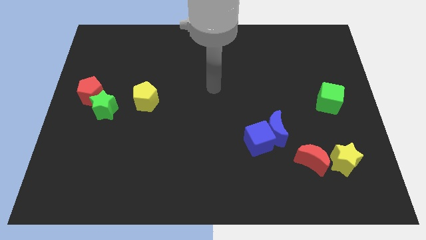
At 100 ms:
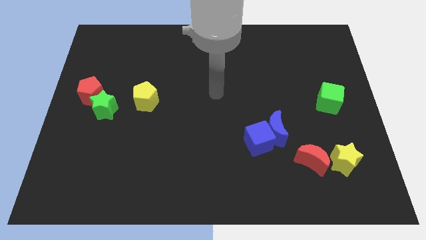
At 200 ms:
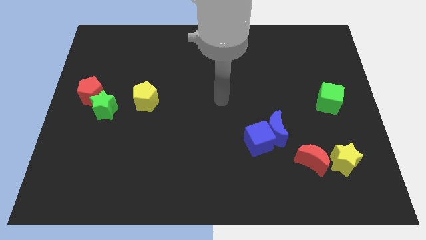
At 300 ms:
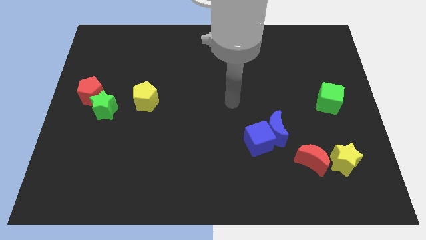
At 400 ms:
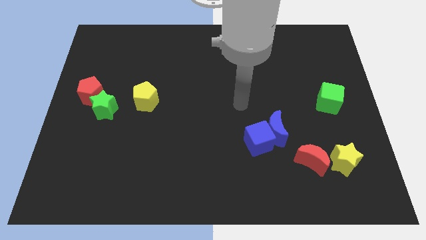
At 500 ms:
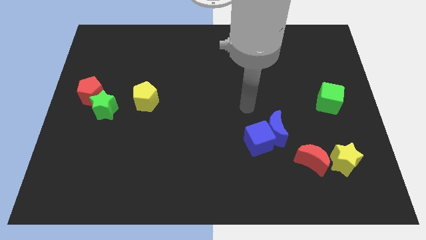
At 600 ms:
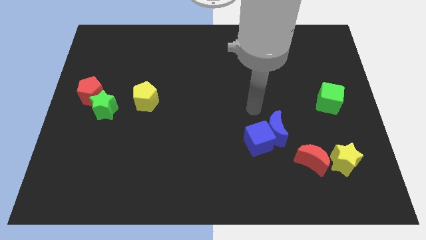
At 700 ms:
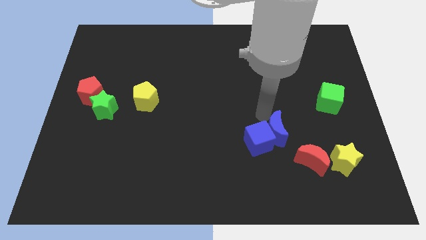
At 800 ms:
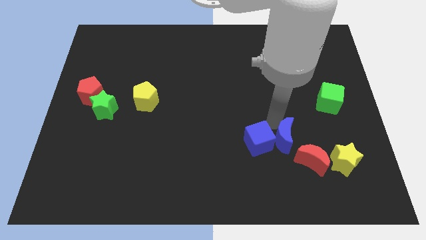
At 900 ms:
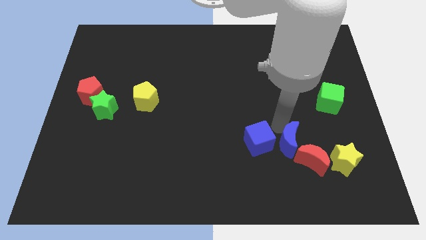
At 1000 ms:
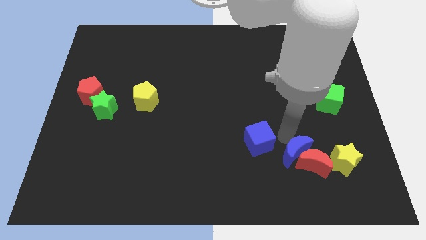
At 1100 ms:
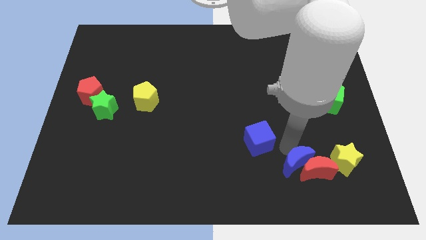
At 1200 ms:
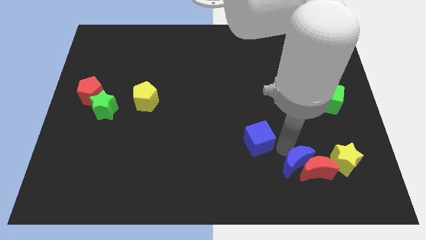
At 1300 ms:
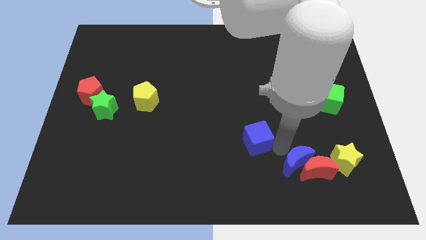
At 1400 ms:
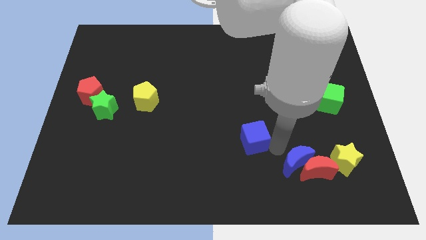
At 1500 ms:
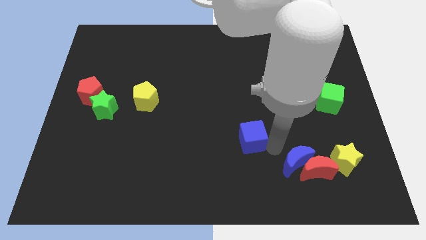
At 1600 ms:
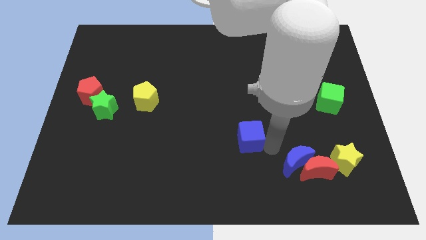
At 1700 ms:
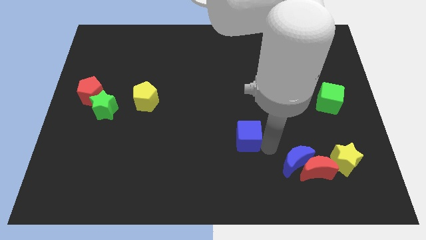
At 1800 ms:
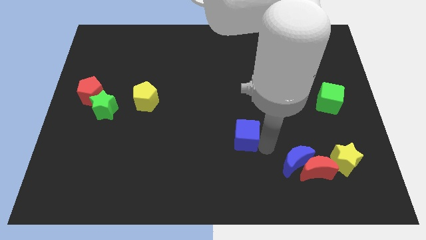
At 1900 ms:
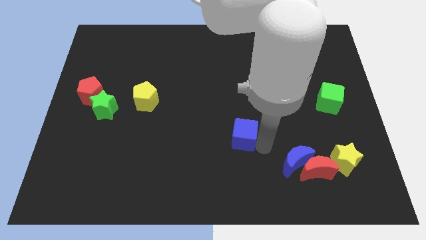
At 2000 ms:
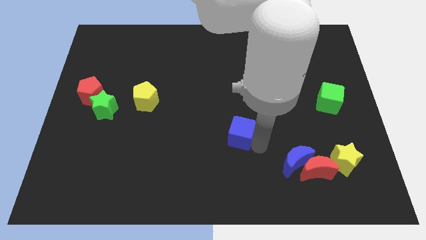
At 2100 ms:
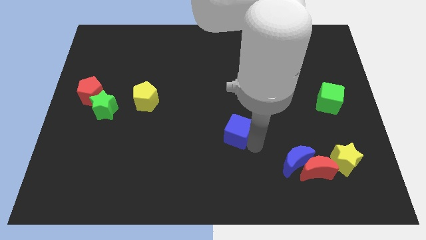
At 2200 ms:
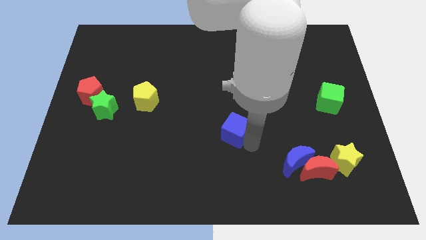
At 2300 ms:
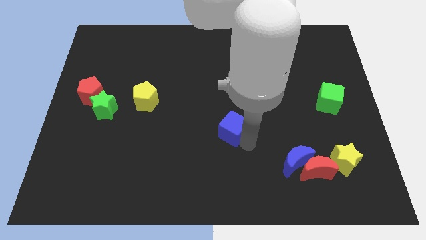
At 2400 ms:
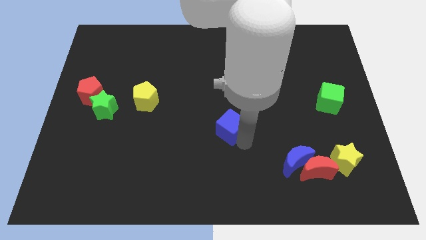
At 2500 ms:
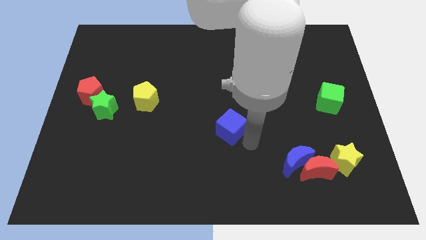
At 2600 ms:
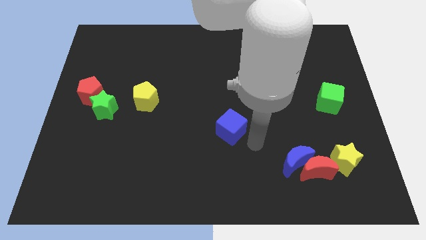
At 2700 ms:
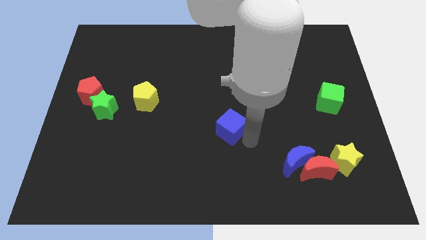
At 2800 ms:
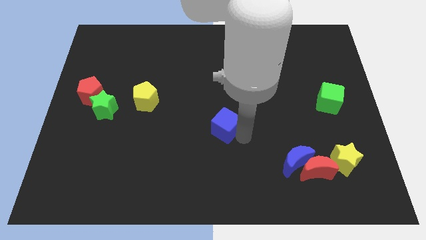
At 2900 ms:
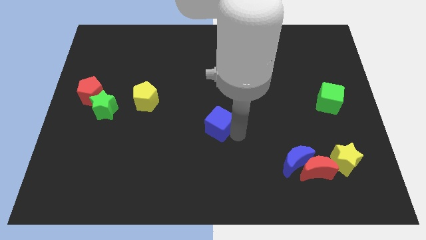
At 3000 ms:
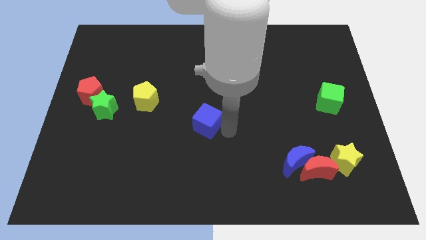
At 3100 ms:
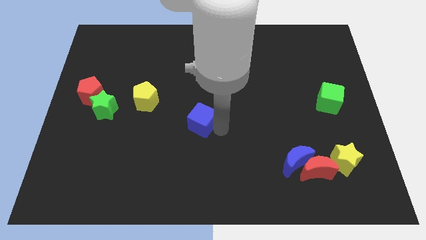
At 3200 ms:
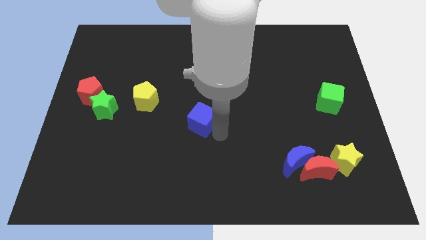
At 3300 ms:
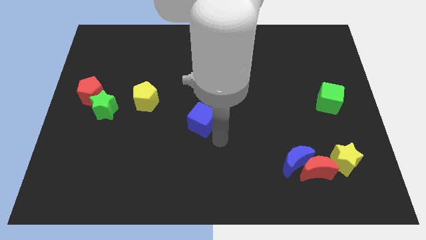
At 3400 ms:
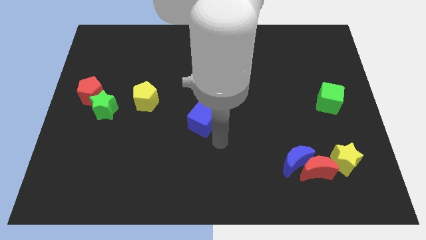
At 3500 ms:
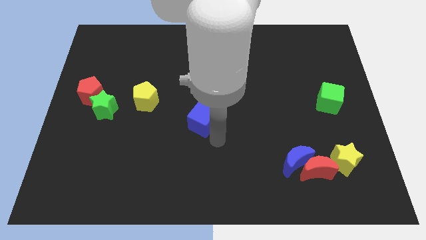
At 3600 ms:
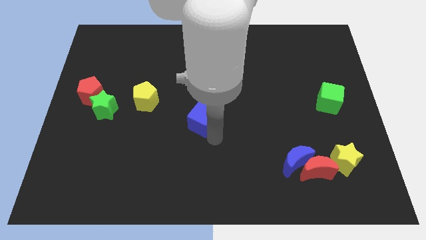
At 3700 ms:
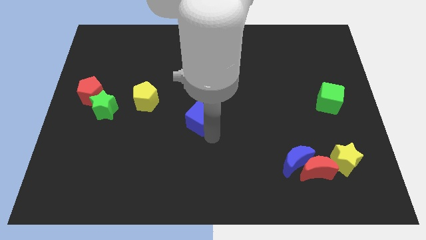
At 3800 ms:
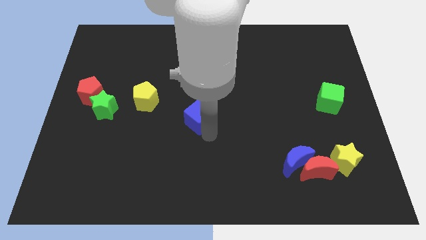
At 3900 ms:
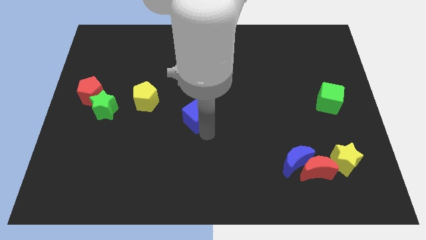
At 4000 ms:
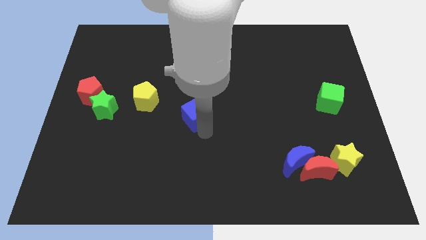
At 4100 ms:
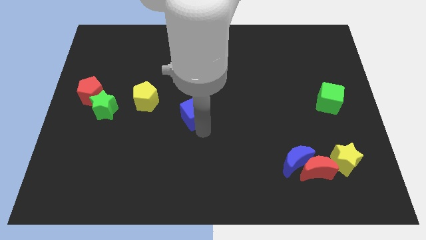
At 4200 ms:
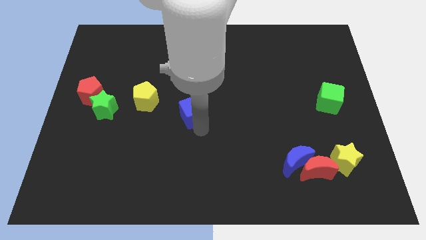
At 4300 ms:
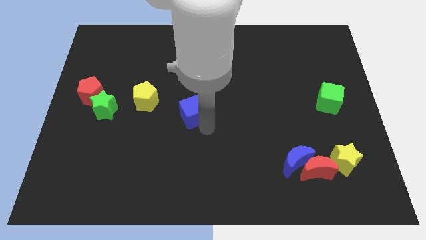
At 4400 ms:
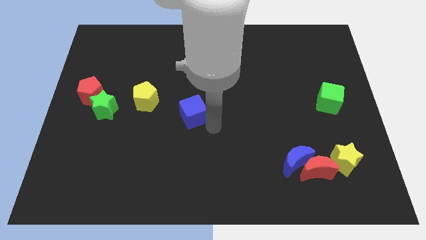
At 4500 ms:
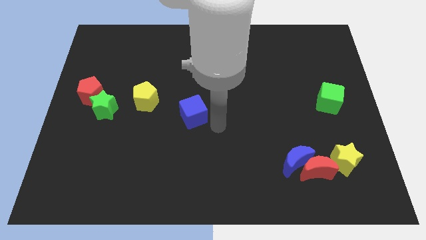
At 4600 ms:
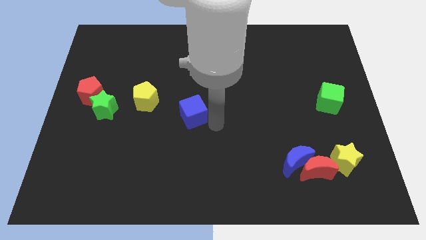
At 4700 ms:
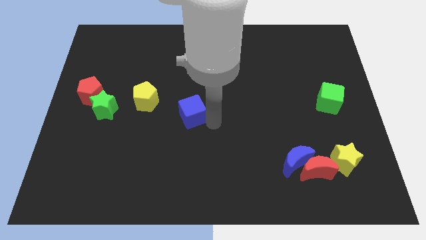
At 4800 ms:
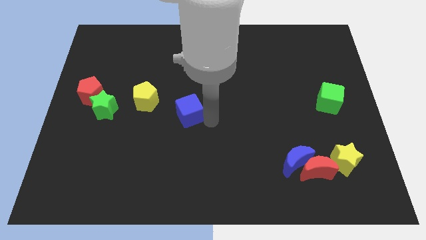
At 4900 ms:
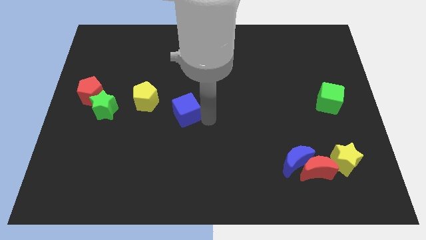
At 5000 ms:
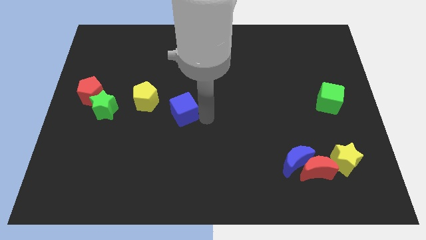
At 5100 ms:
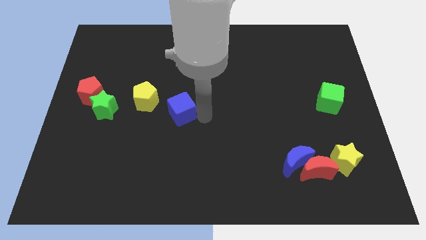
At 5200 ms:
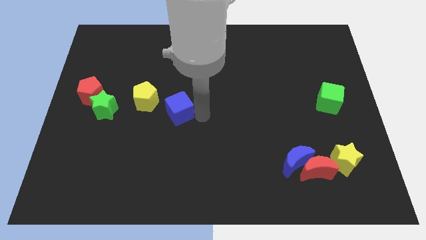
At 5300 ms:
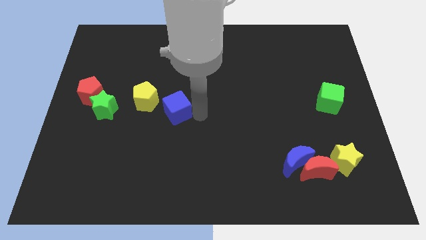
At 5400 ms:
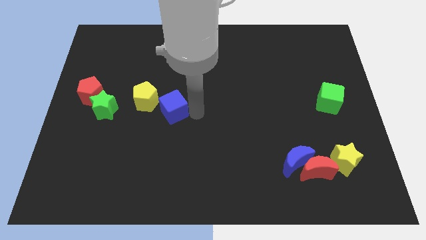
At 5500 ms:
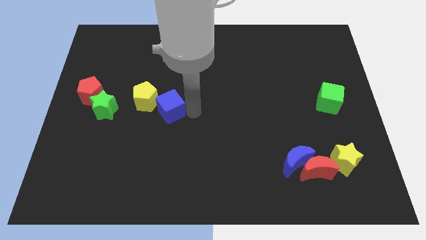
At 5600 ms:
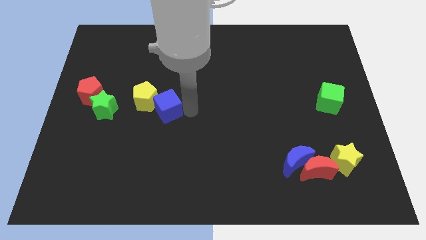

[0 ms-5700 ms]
put the blue cube close to the yellow pentagon

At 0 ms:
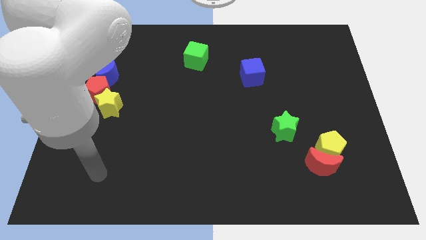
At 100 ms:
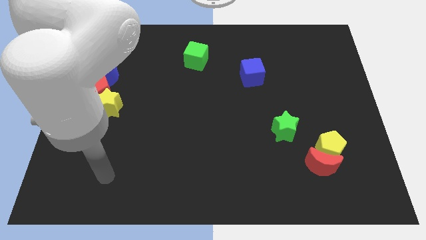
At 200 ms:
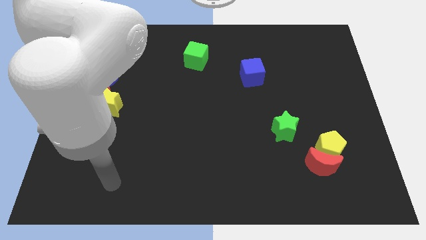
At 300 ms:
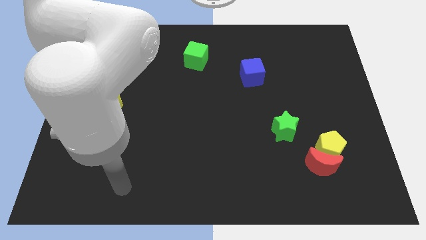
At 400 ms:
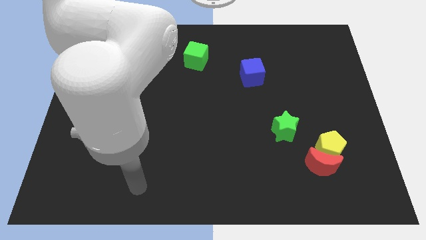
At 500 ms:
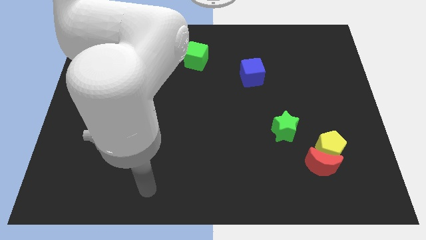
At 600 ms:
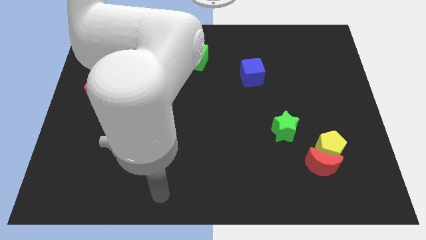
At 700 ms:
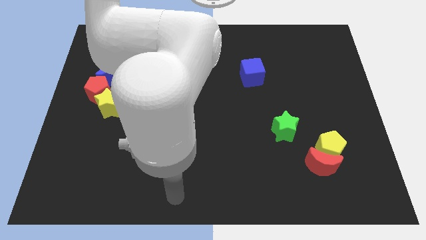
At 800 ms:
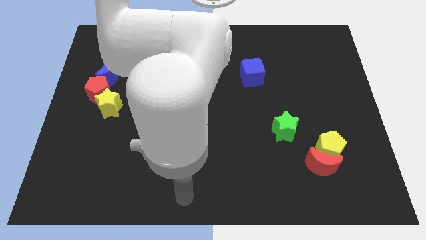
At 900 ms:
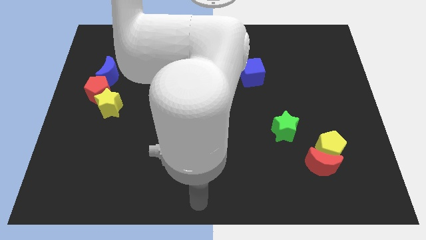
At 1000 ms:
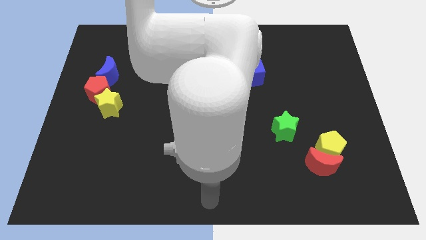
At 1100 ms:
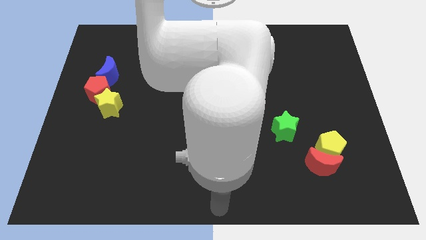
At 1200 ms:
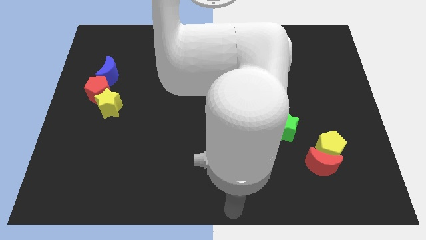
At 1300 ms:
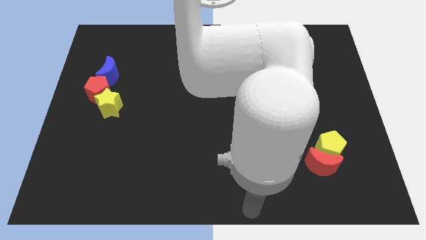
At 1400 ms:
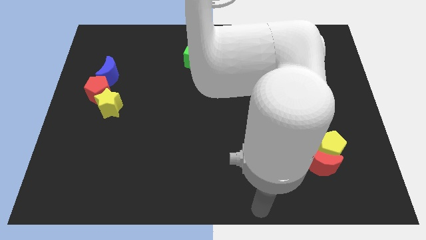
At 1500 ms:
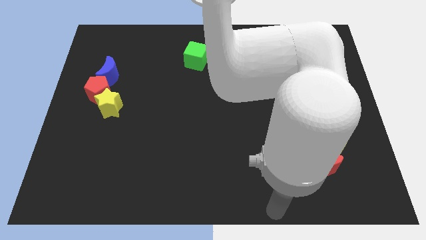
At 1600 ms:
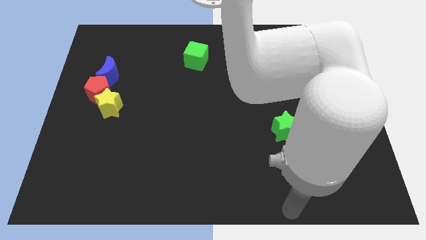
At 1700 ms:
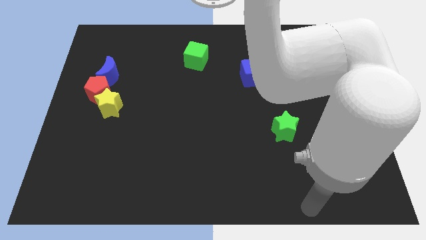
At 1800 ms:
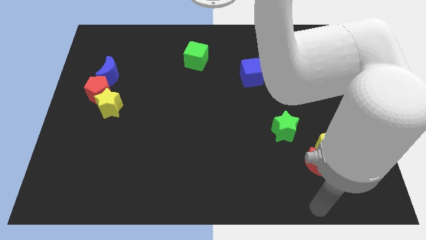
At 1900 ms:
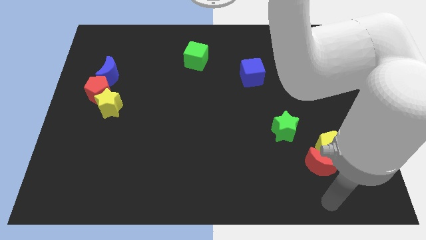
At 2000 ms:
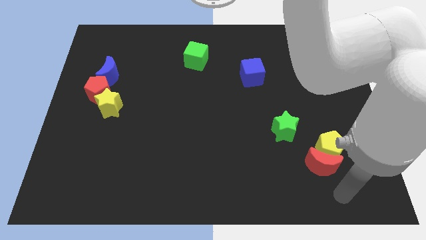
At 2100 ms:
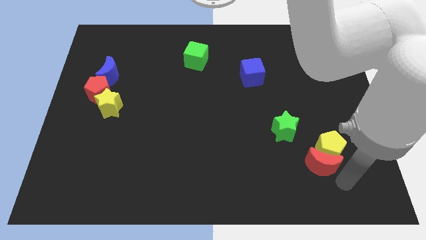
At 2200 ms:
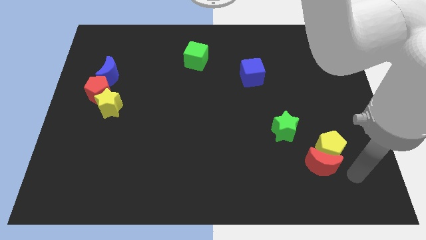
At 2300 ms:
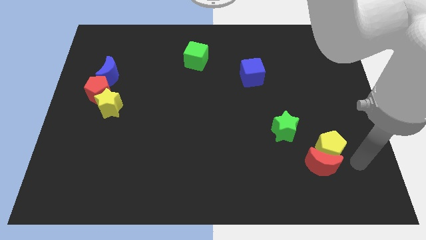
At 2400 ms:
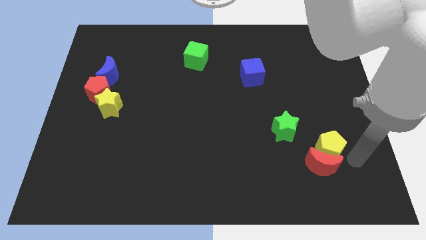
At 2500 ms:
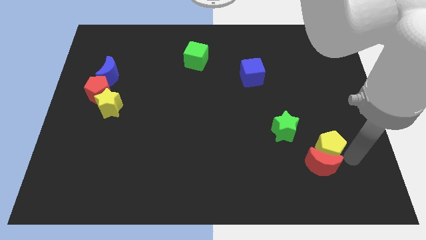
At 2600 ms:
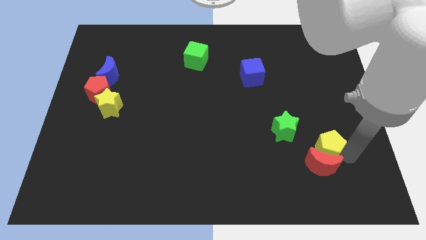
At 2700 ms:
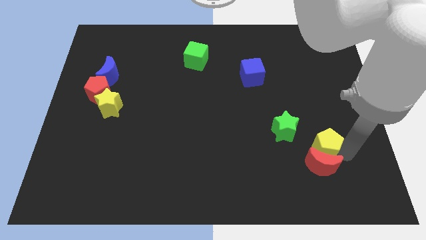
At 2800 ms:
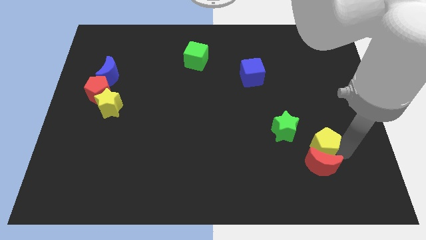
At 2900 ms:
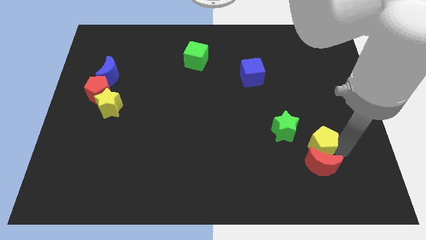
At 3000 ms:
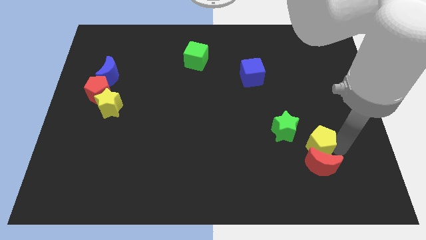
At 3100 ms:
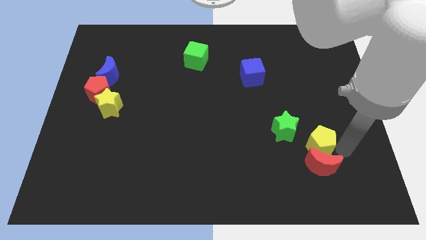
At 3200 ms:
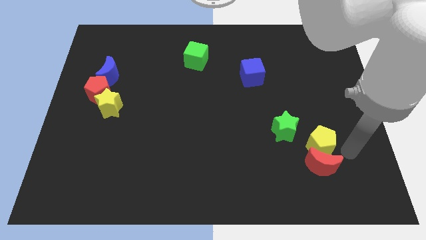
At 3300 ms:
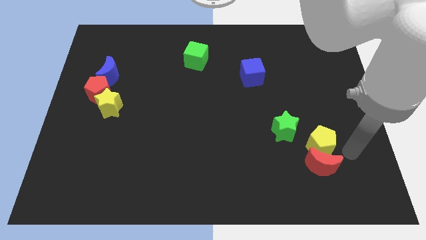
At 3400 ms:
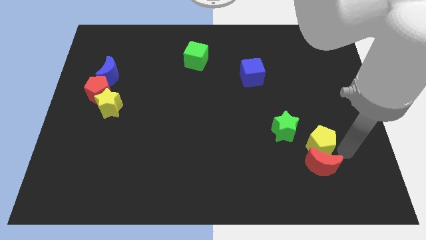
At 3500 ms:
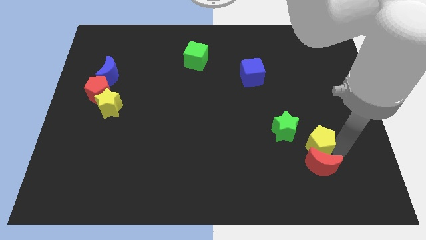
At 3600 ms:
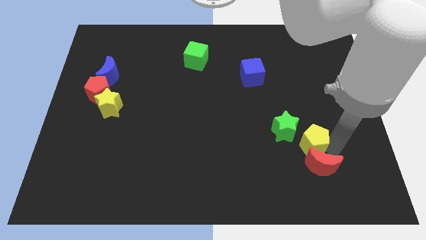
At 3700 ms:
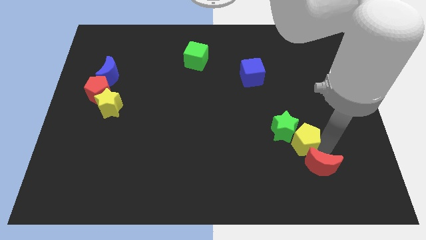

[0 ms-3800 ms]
move the yellow pentagon next to the green star
